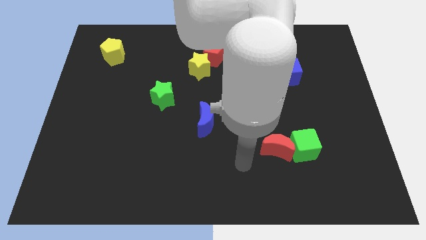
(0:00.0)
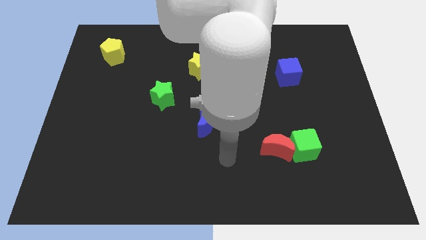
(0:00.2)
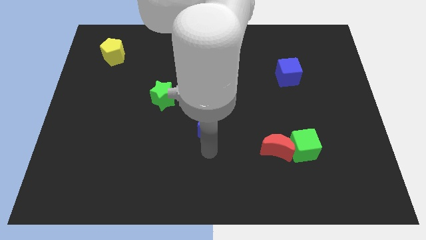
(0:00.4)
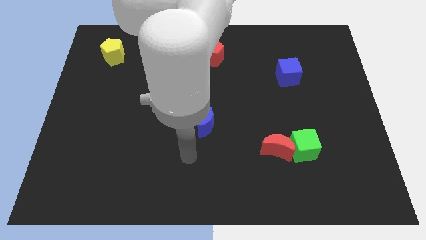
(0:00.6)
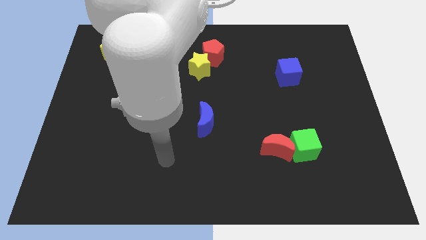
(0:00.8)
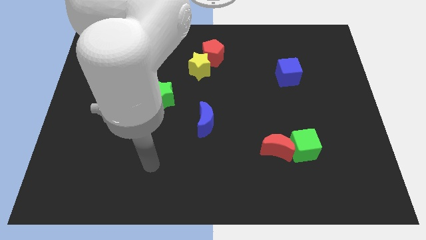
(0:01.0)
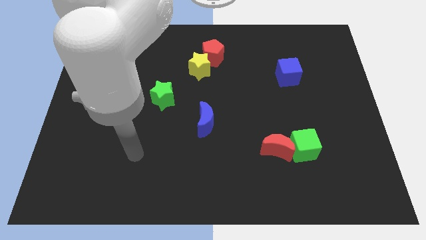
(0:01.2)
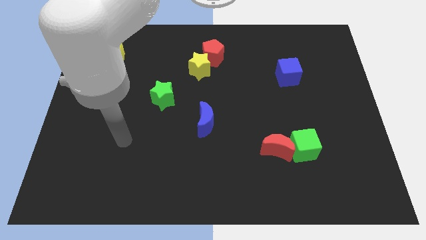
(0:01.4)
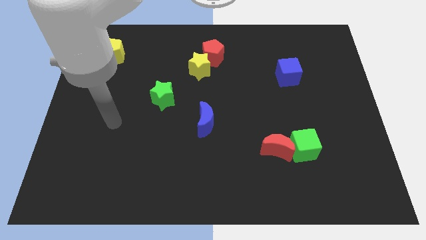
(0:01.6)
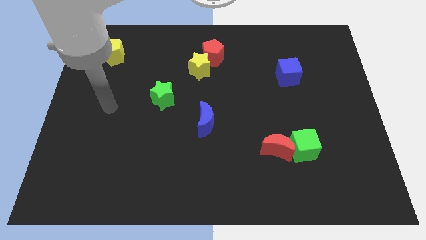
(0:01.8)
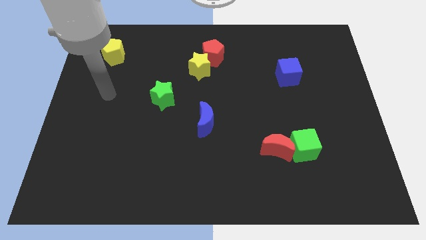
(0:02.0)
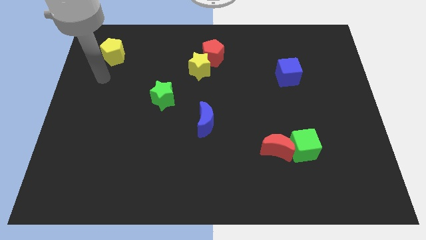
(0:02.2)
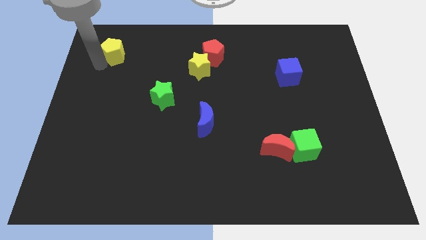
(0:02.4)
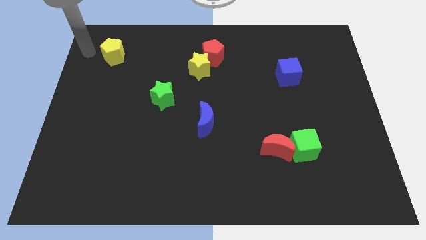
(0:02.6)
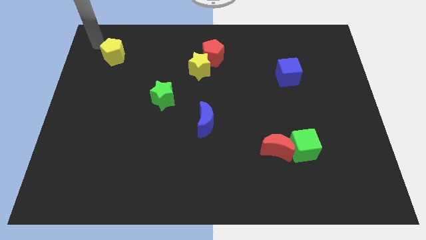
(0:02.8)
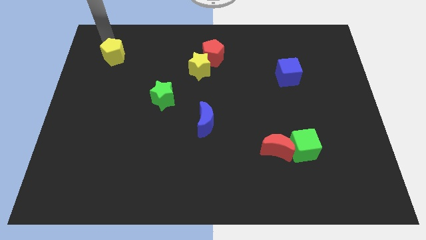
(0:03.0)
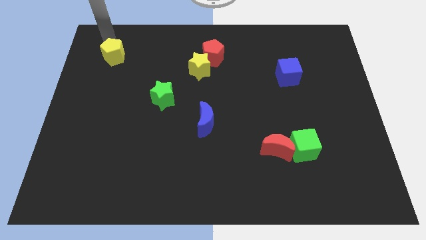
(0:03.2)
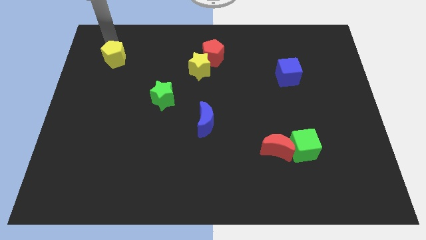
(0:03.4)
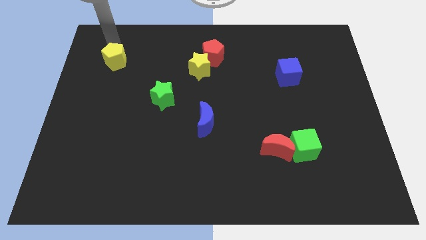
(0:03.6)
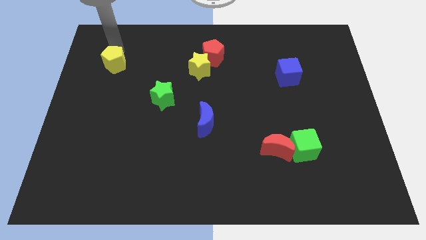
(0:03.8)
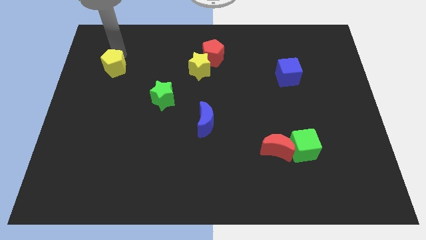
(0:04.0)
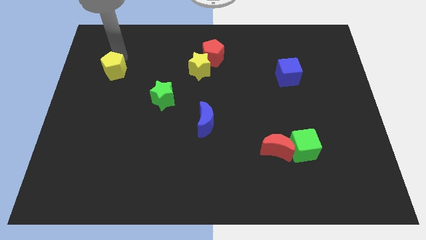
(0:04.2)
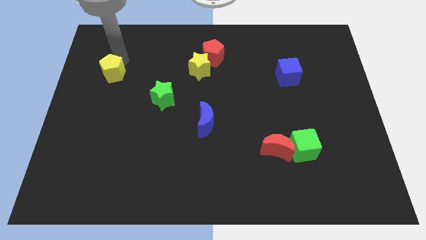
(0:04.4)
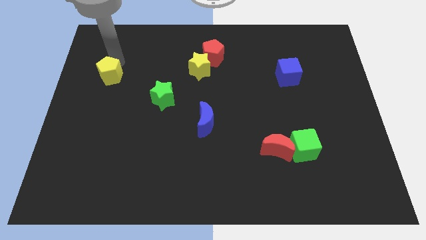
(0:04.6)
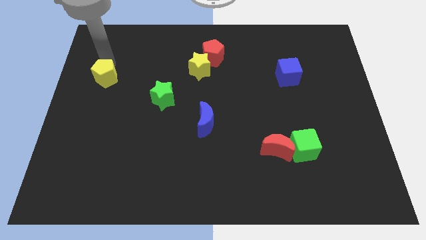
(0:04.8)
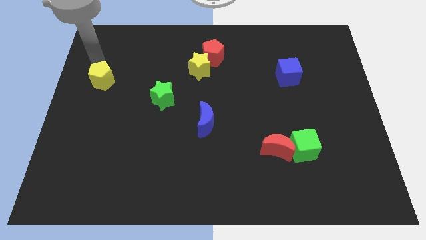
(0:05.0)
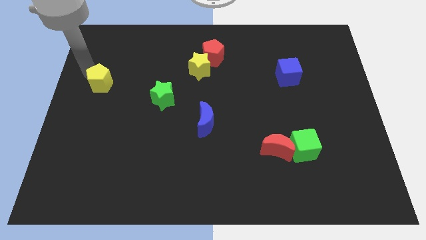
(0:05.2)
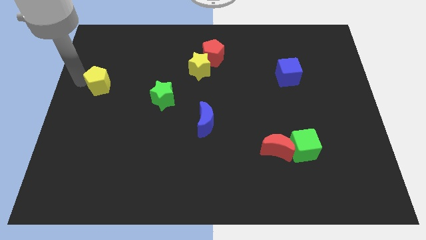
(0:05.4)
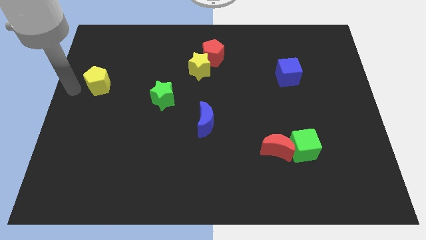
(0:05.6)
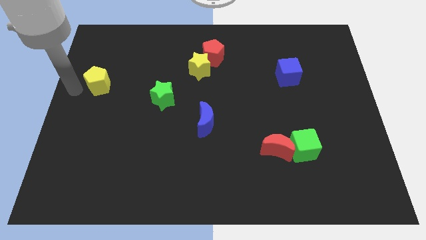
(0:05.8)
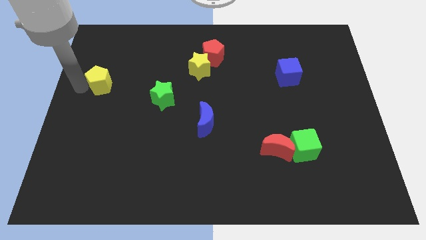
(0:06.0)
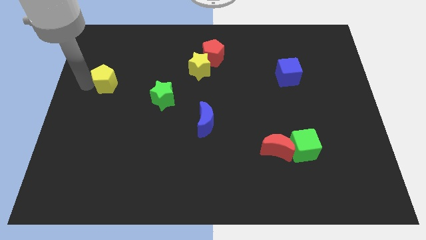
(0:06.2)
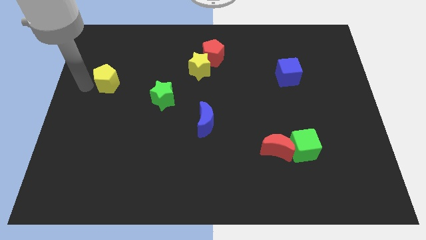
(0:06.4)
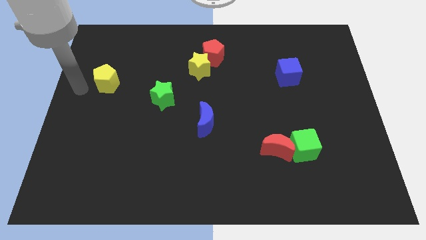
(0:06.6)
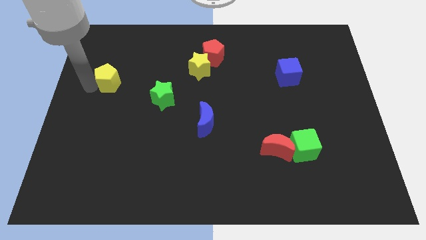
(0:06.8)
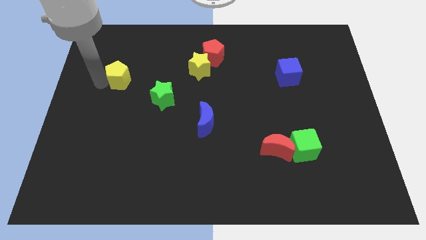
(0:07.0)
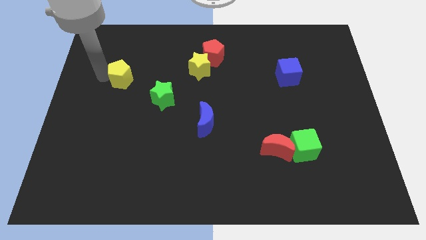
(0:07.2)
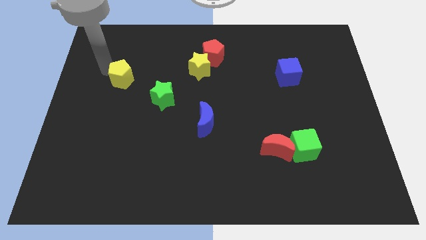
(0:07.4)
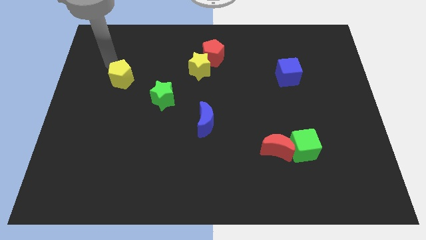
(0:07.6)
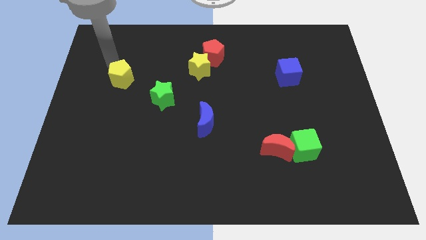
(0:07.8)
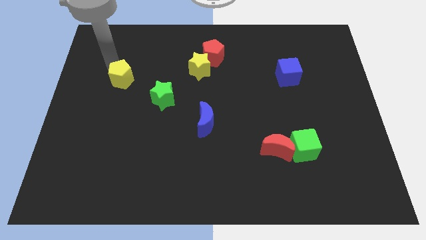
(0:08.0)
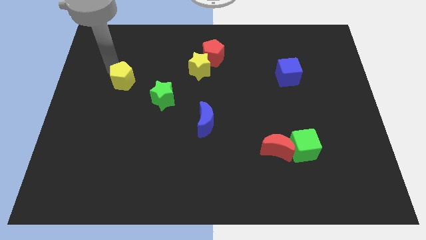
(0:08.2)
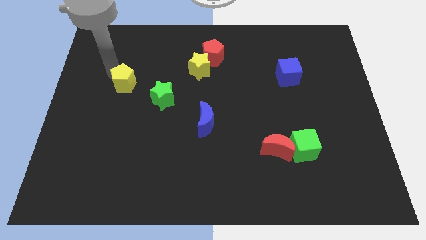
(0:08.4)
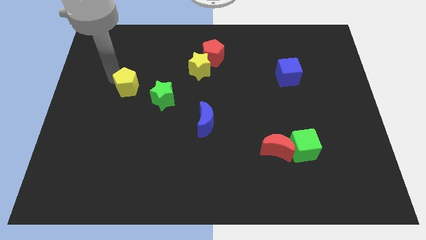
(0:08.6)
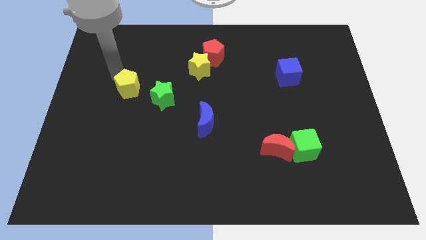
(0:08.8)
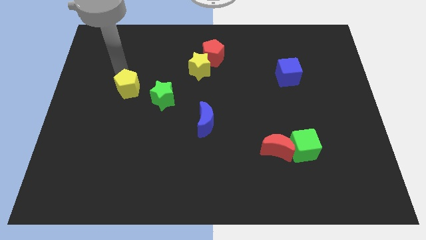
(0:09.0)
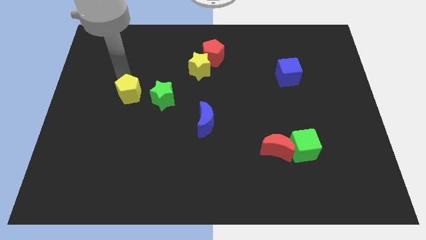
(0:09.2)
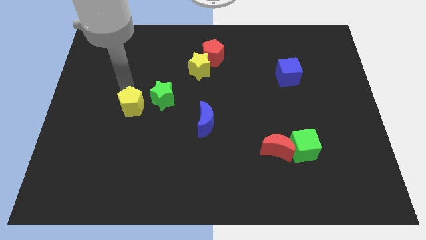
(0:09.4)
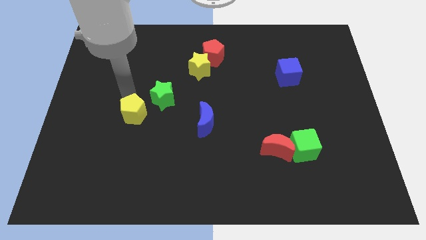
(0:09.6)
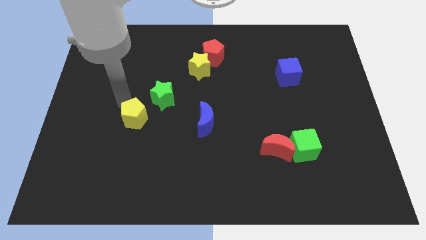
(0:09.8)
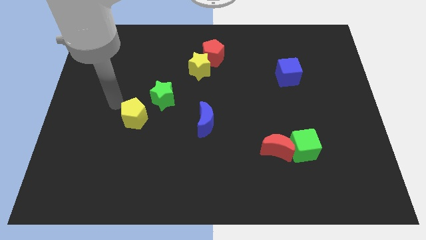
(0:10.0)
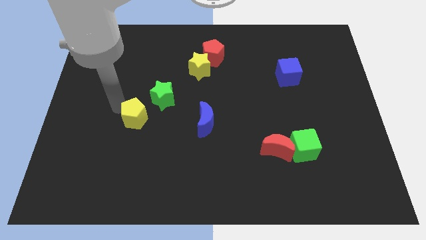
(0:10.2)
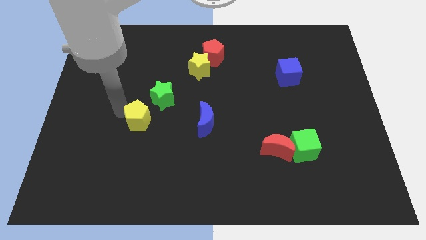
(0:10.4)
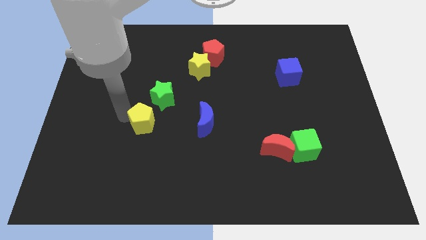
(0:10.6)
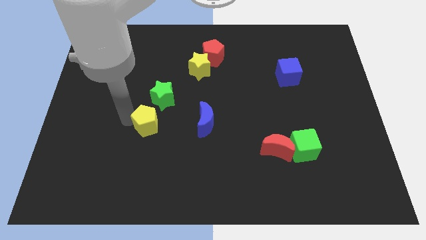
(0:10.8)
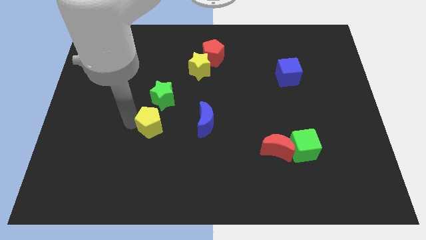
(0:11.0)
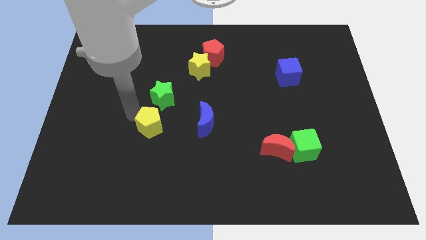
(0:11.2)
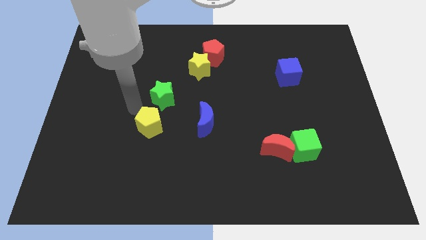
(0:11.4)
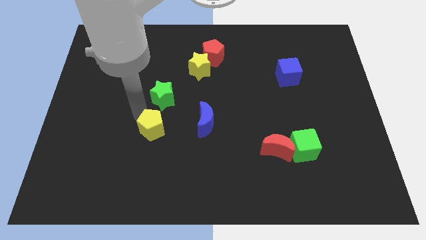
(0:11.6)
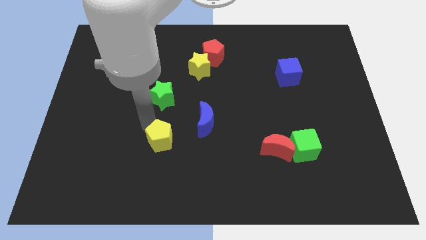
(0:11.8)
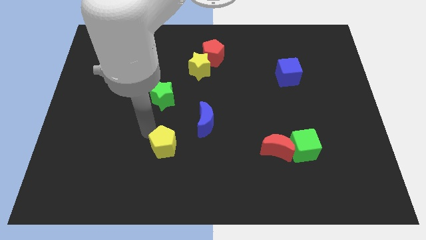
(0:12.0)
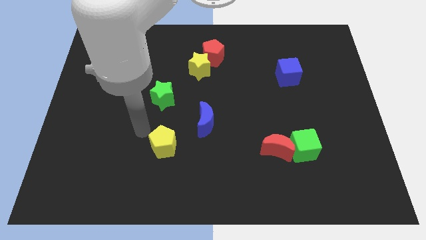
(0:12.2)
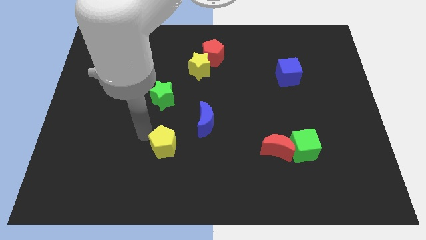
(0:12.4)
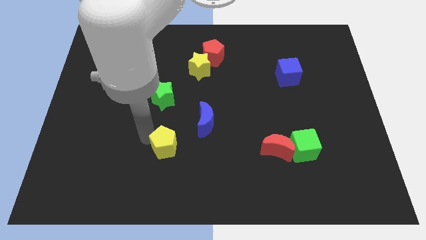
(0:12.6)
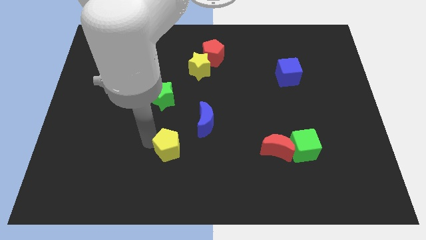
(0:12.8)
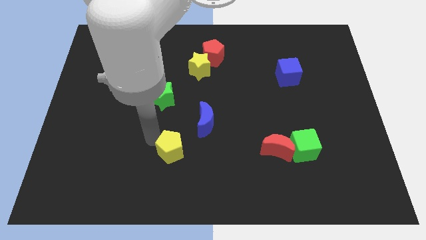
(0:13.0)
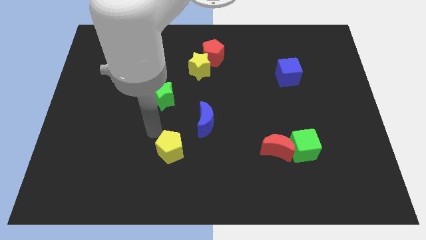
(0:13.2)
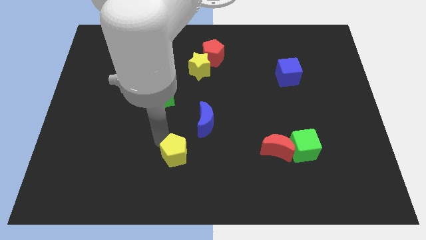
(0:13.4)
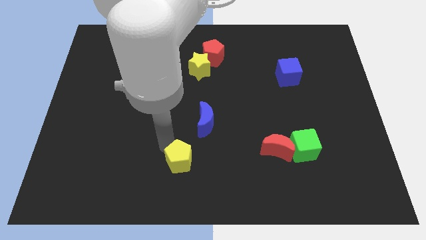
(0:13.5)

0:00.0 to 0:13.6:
put the yellow pentagon to the bottom side
